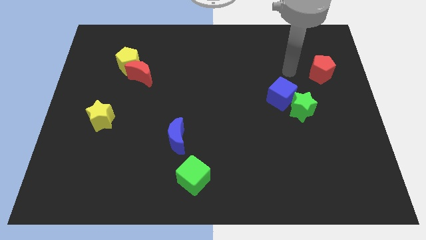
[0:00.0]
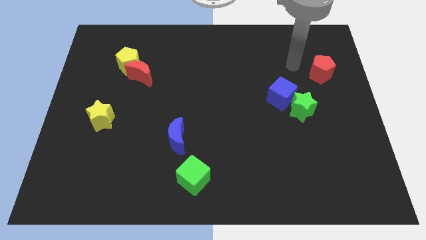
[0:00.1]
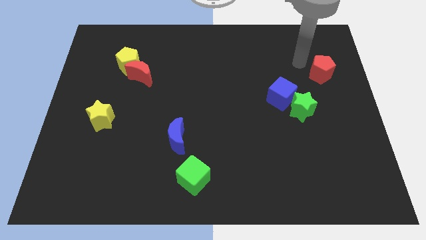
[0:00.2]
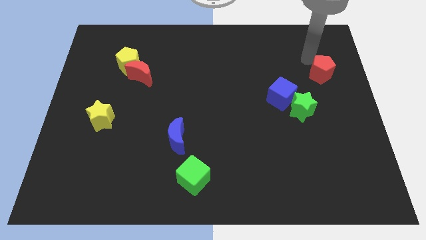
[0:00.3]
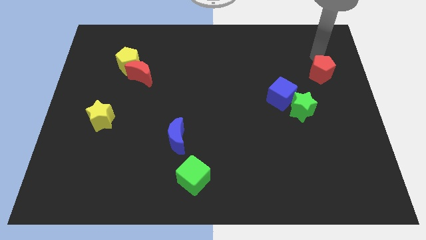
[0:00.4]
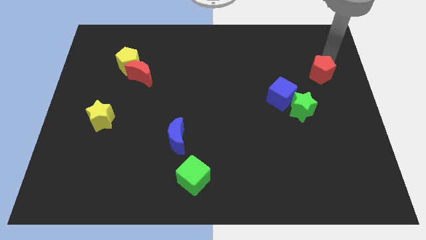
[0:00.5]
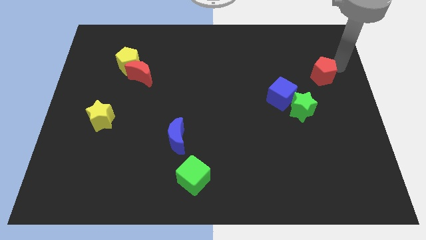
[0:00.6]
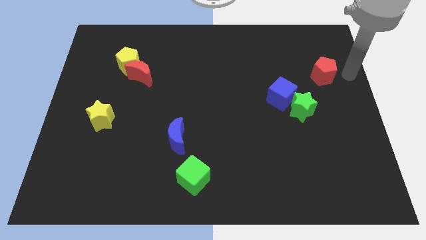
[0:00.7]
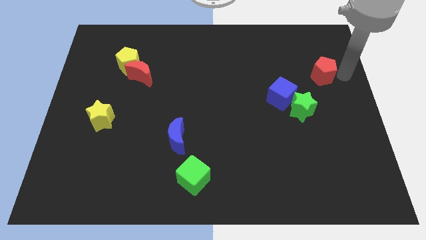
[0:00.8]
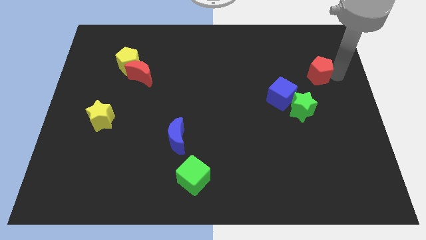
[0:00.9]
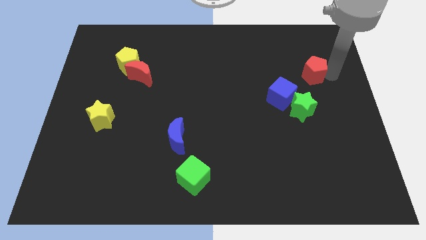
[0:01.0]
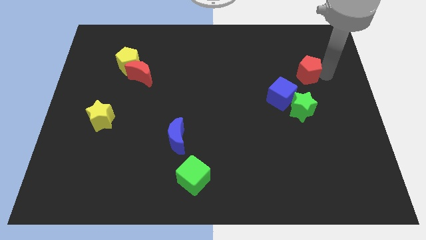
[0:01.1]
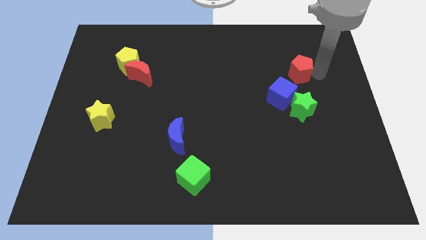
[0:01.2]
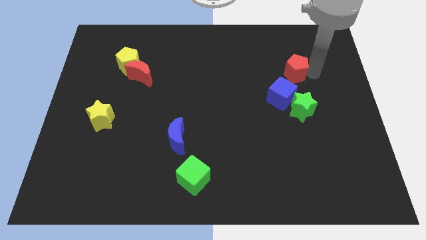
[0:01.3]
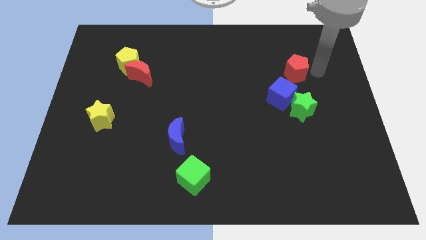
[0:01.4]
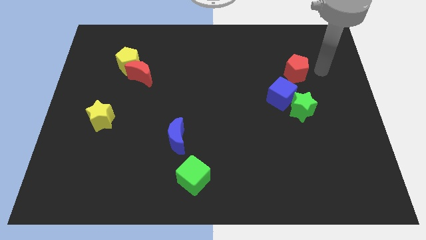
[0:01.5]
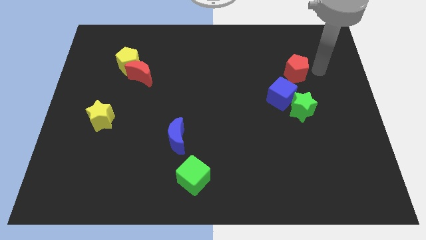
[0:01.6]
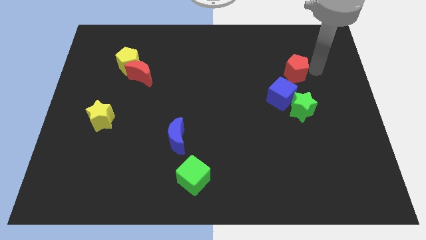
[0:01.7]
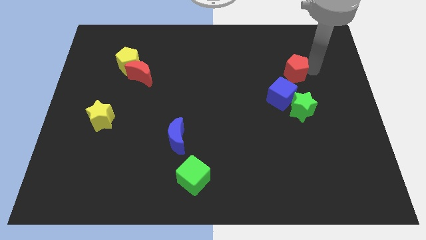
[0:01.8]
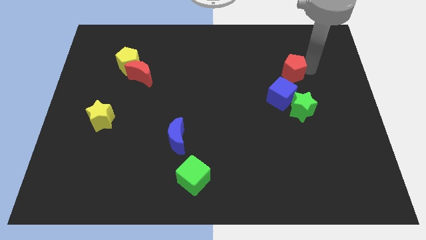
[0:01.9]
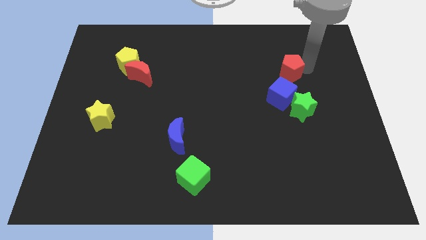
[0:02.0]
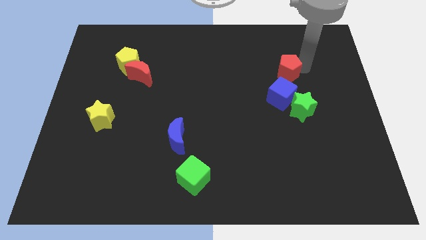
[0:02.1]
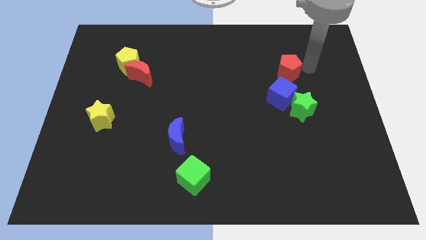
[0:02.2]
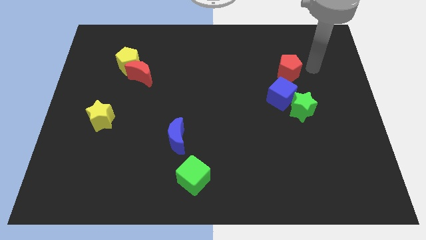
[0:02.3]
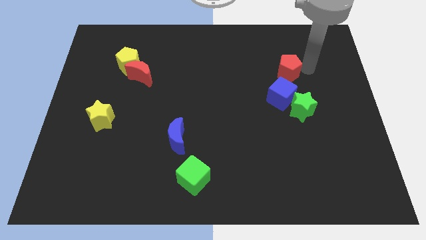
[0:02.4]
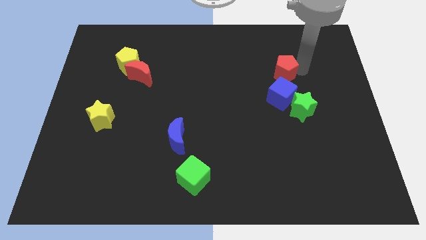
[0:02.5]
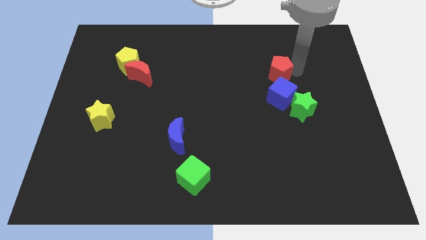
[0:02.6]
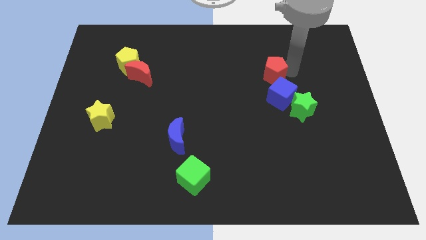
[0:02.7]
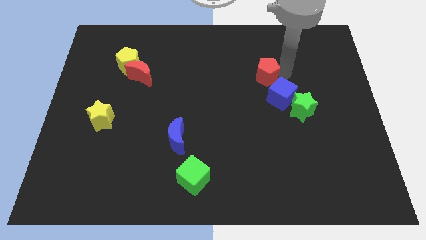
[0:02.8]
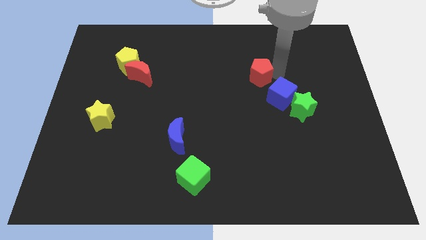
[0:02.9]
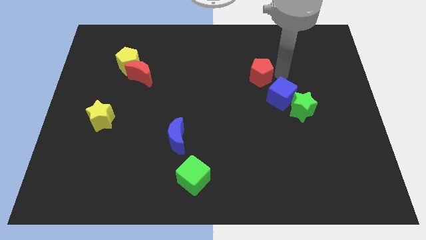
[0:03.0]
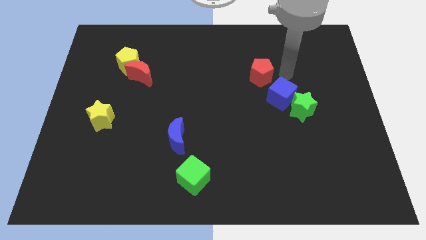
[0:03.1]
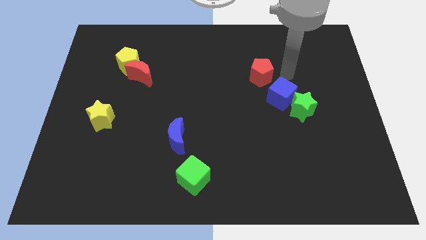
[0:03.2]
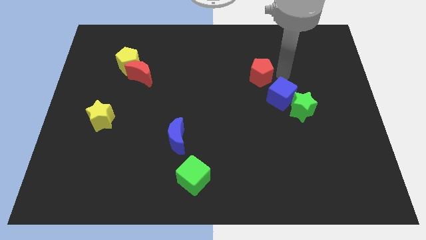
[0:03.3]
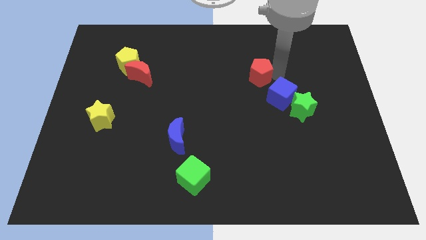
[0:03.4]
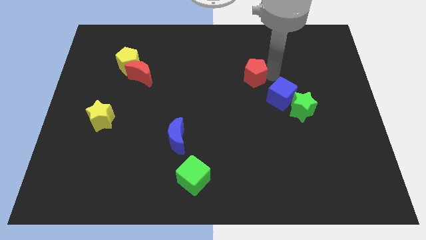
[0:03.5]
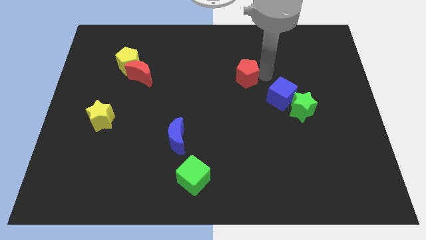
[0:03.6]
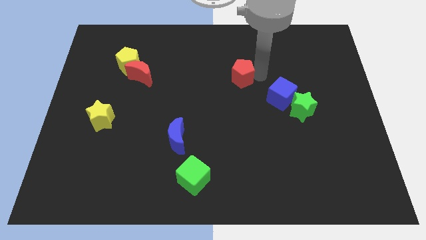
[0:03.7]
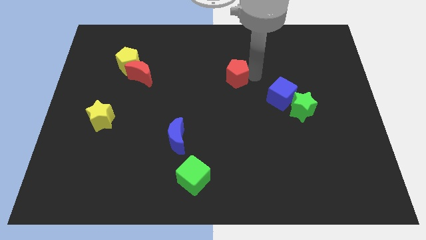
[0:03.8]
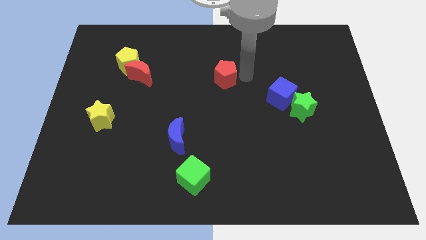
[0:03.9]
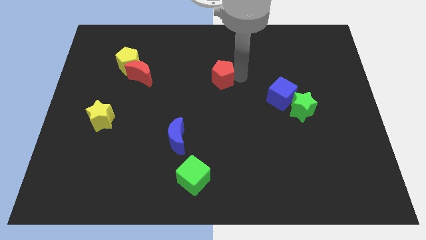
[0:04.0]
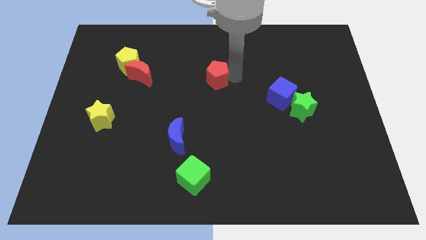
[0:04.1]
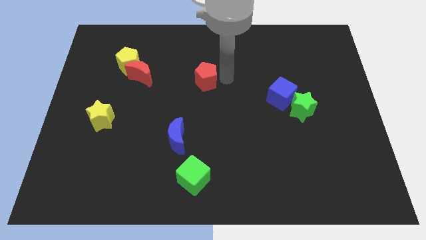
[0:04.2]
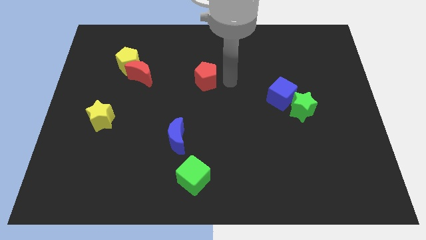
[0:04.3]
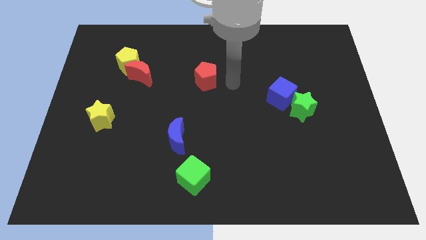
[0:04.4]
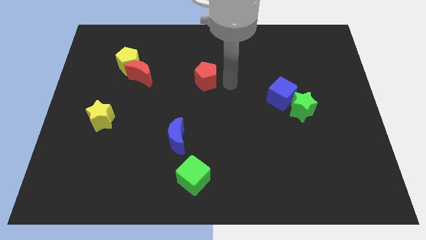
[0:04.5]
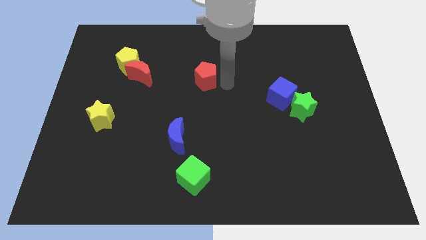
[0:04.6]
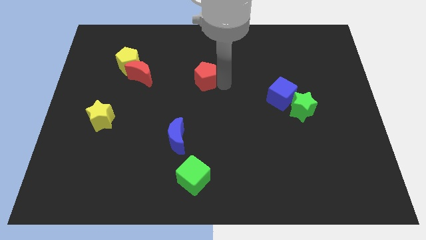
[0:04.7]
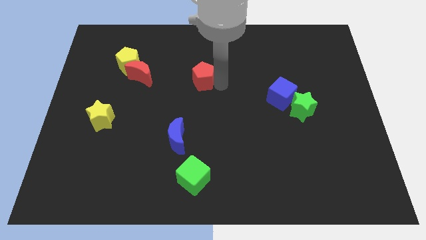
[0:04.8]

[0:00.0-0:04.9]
slide the red pentagon just right of the red moon

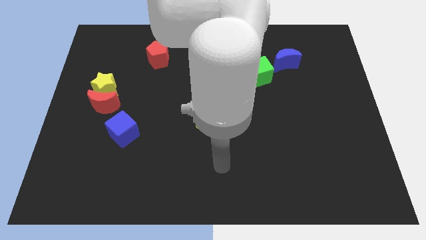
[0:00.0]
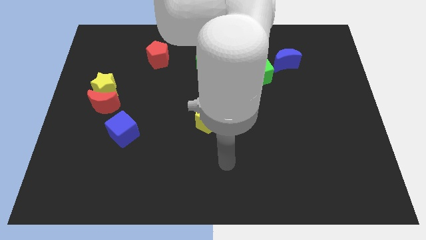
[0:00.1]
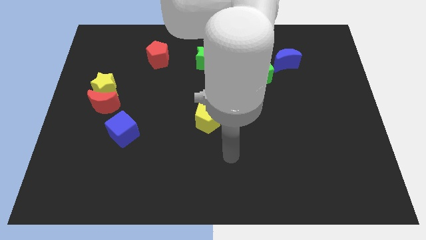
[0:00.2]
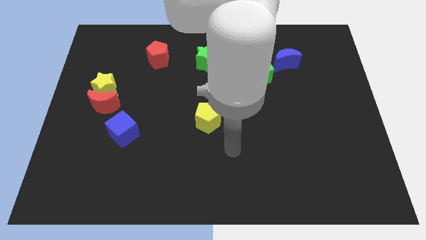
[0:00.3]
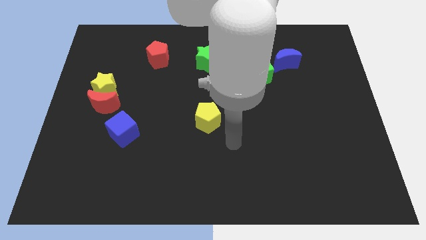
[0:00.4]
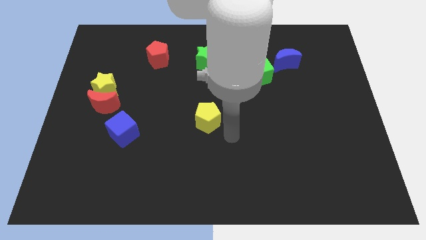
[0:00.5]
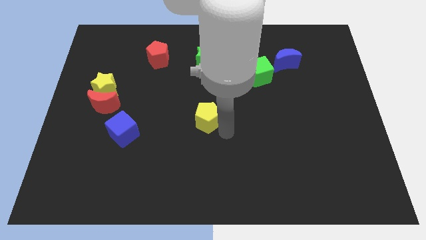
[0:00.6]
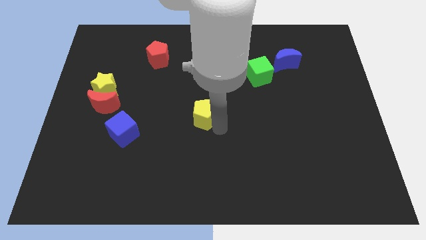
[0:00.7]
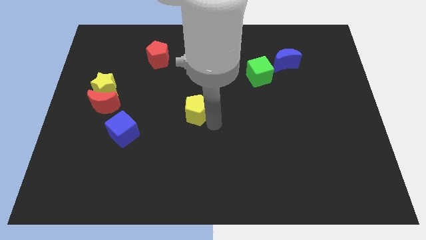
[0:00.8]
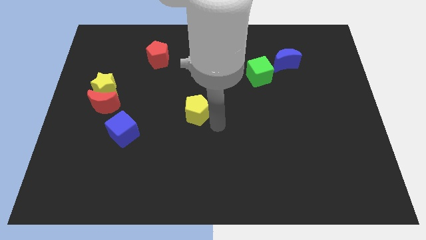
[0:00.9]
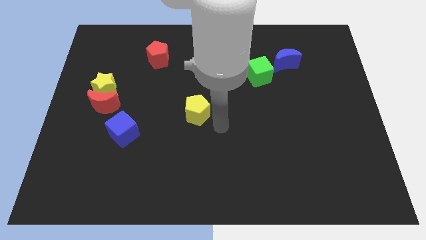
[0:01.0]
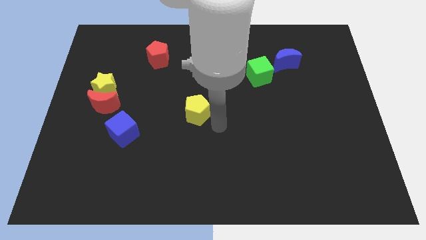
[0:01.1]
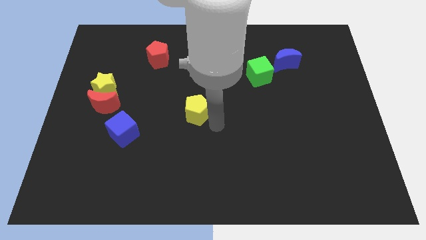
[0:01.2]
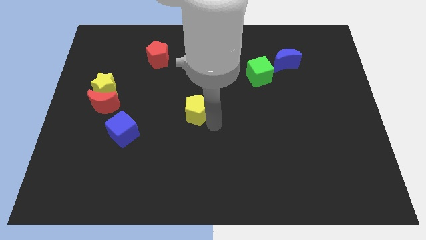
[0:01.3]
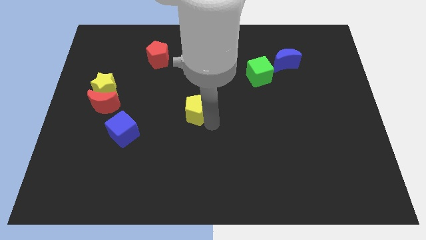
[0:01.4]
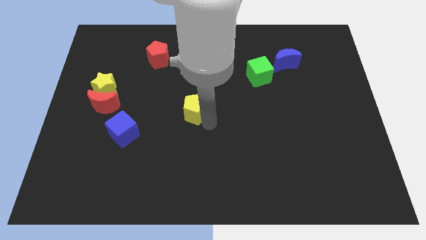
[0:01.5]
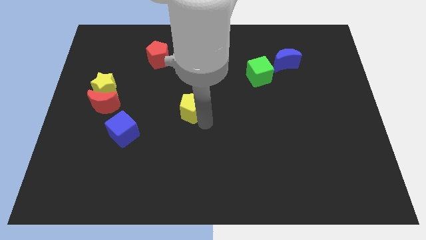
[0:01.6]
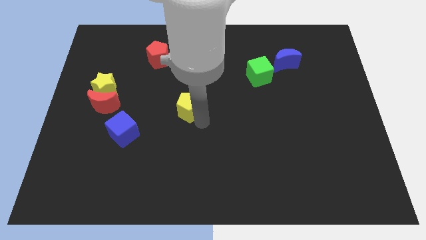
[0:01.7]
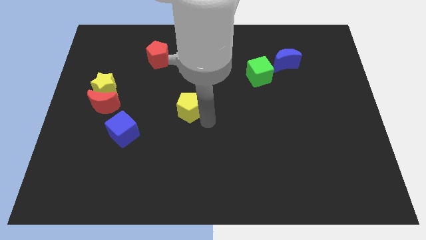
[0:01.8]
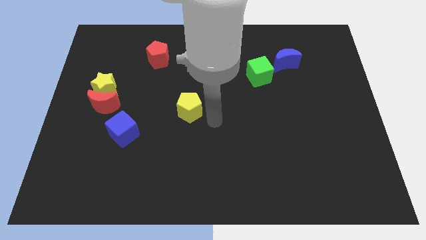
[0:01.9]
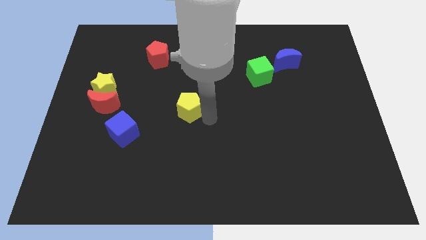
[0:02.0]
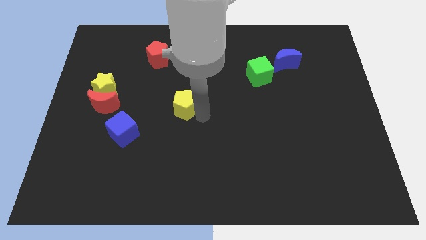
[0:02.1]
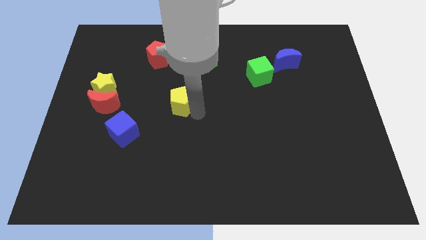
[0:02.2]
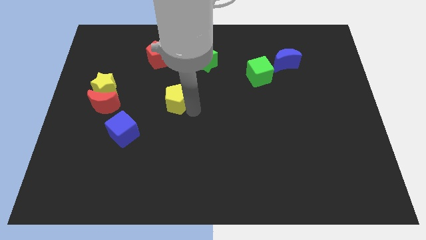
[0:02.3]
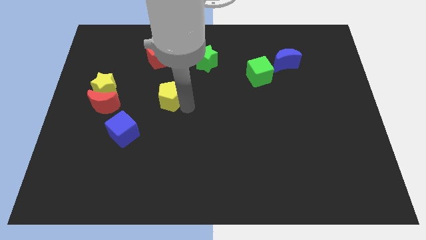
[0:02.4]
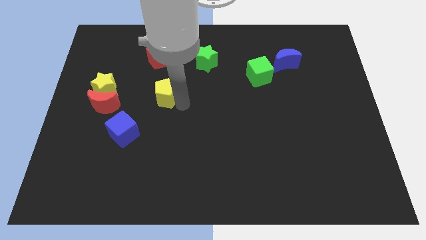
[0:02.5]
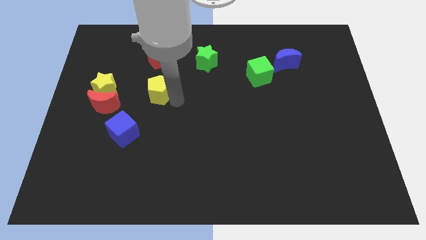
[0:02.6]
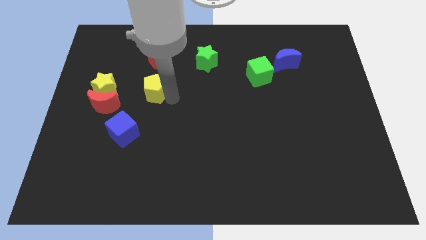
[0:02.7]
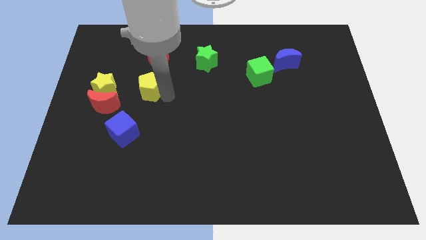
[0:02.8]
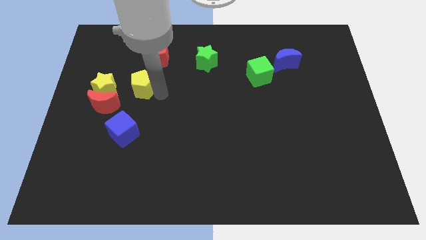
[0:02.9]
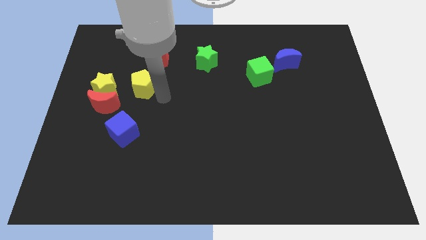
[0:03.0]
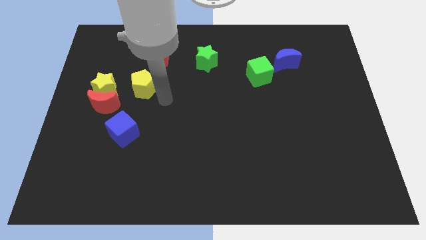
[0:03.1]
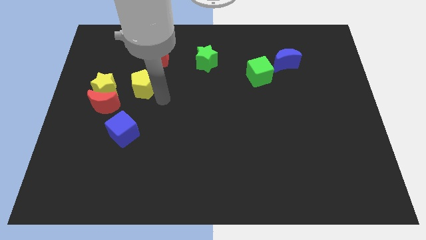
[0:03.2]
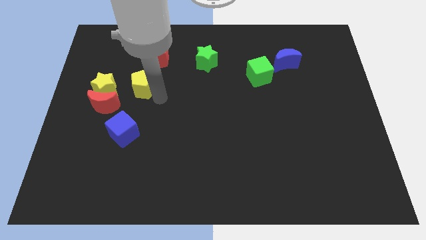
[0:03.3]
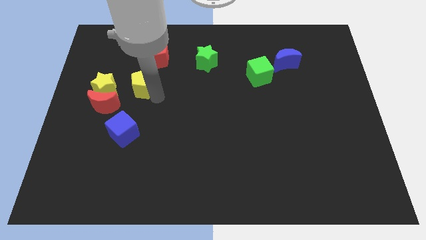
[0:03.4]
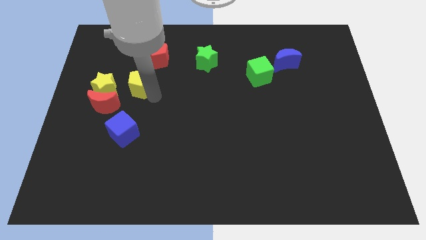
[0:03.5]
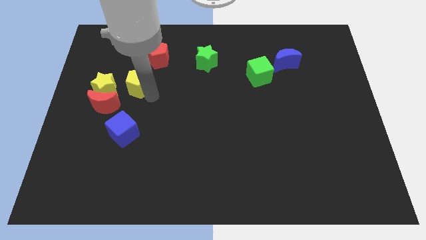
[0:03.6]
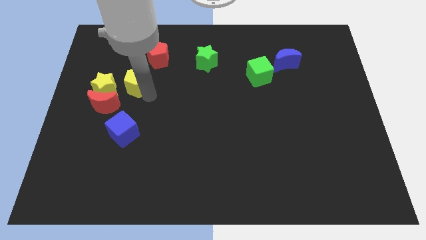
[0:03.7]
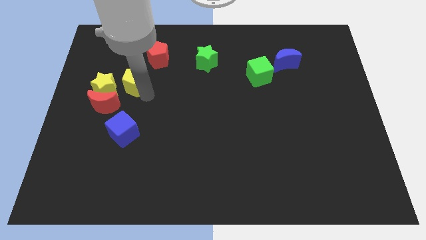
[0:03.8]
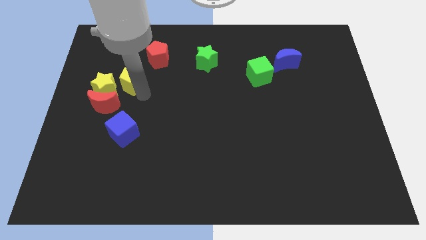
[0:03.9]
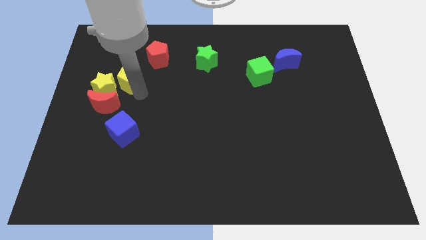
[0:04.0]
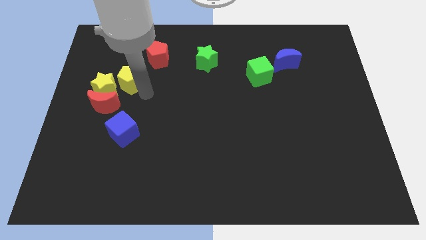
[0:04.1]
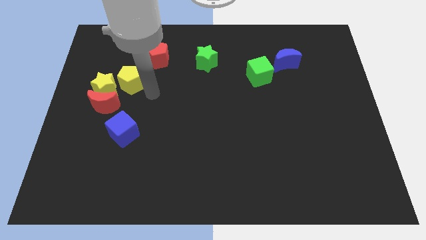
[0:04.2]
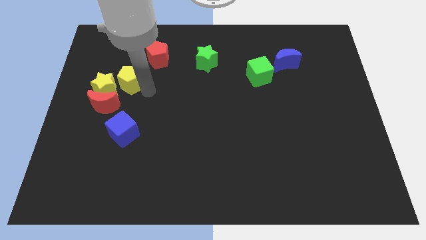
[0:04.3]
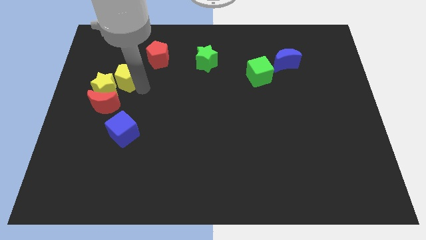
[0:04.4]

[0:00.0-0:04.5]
slide the yellow pentagon to the top side of the red moon
